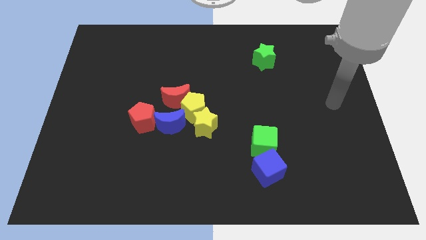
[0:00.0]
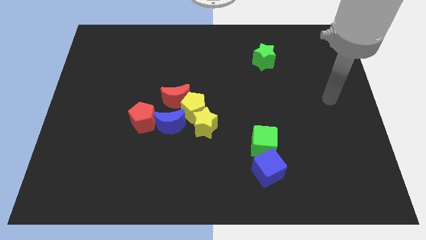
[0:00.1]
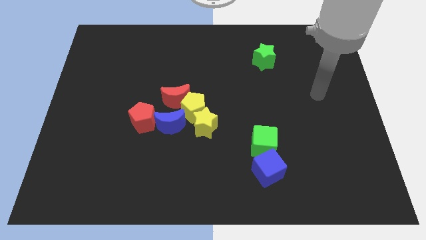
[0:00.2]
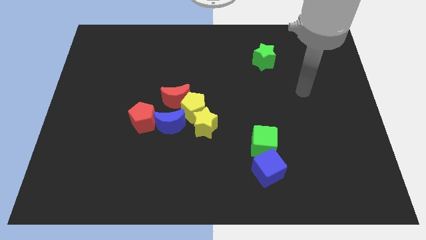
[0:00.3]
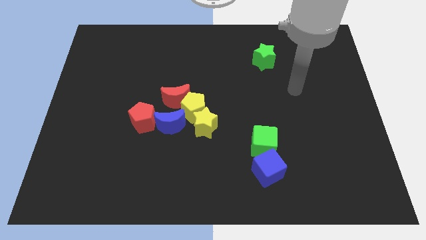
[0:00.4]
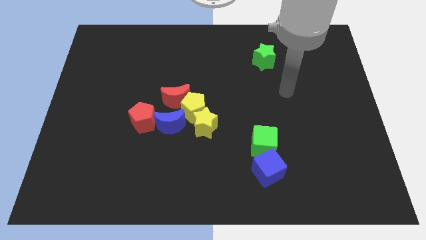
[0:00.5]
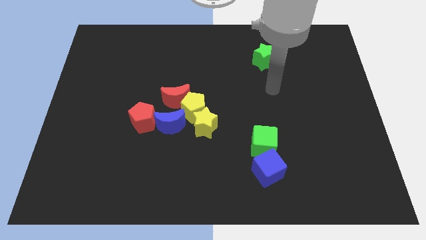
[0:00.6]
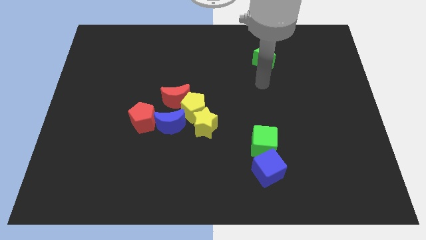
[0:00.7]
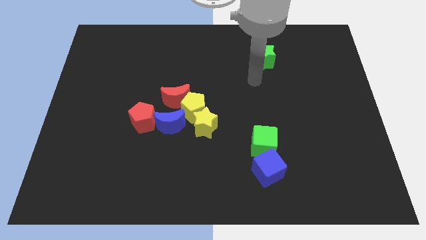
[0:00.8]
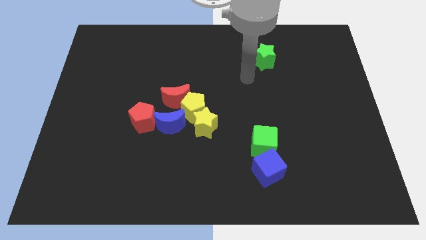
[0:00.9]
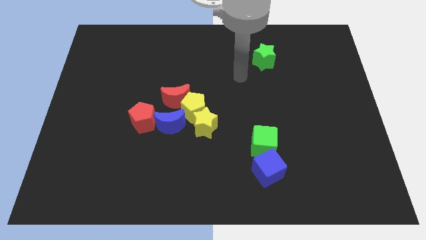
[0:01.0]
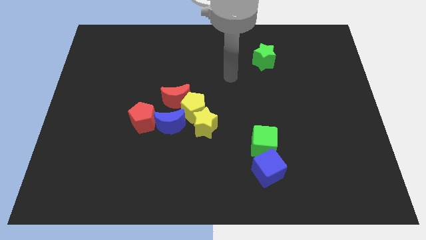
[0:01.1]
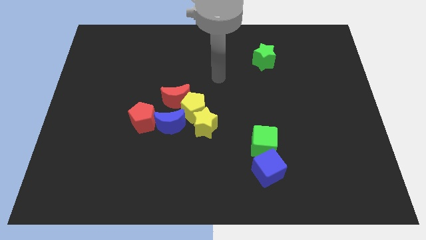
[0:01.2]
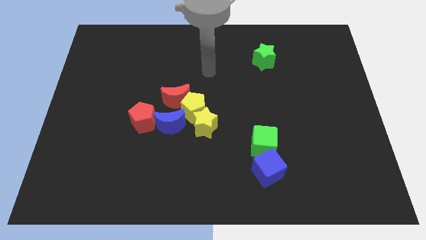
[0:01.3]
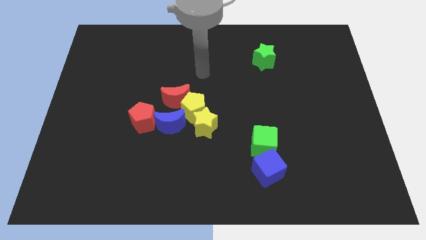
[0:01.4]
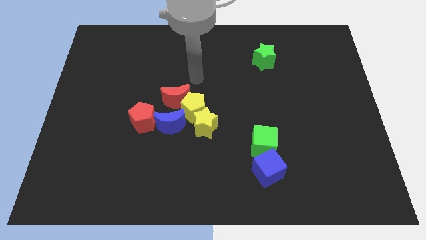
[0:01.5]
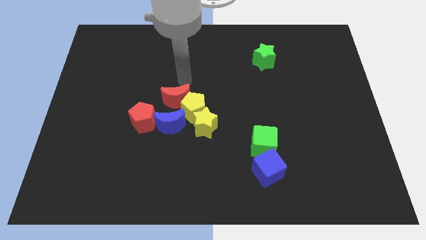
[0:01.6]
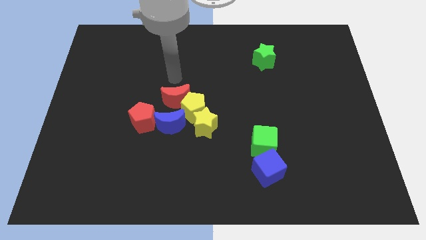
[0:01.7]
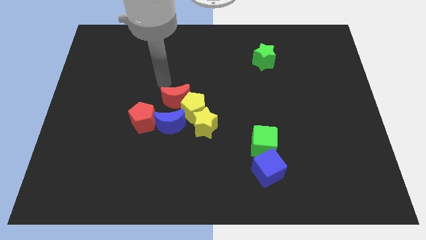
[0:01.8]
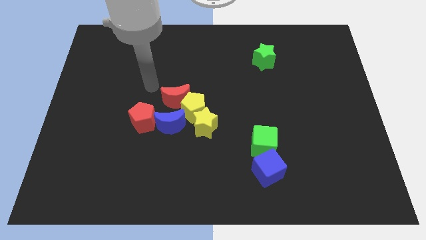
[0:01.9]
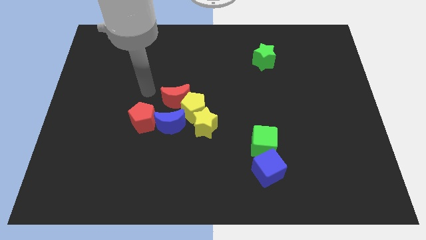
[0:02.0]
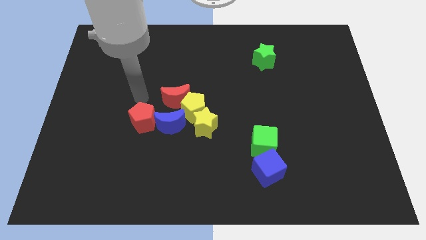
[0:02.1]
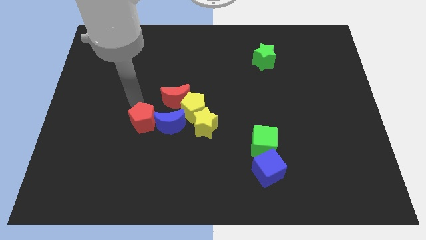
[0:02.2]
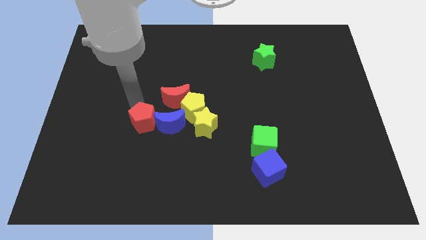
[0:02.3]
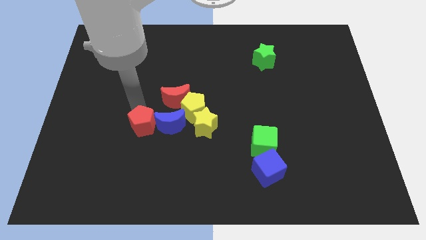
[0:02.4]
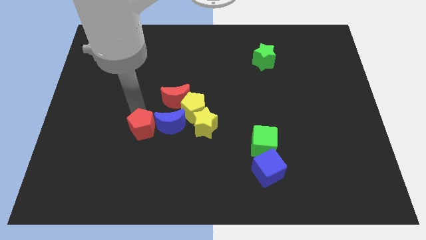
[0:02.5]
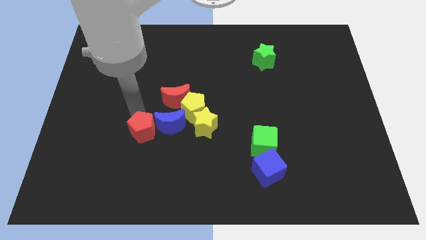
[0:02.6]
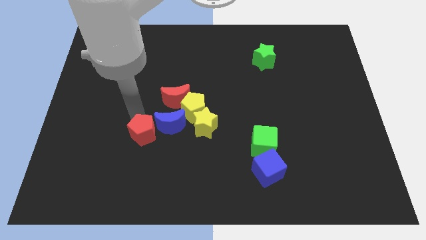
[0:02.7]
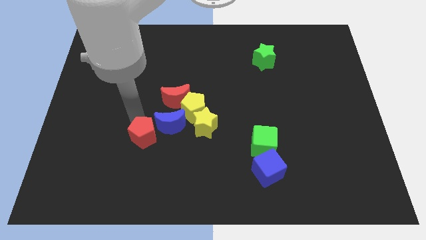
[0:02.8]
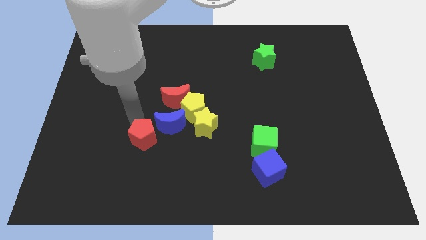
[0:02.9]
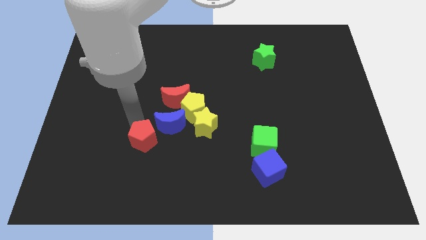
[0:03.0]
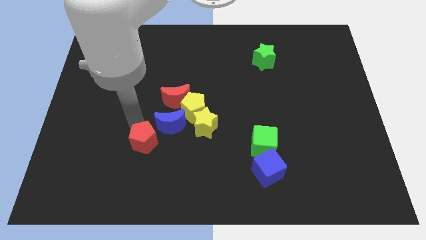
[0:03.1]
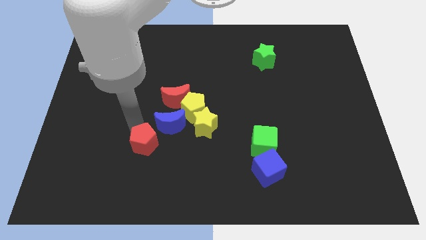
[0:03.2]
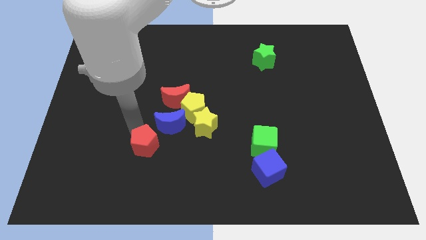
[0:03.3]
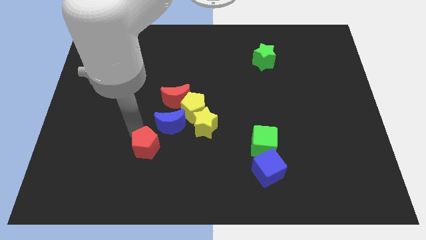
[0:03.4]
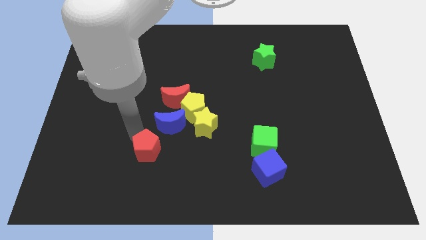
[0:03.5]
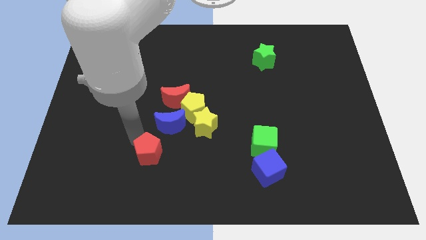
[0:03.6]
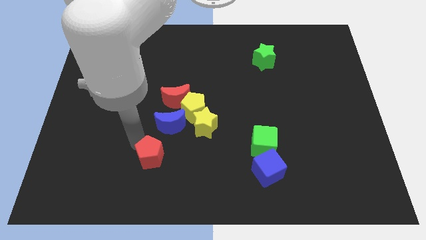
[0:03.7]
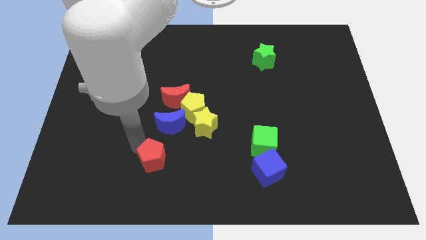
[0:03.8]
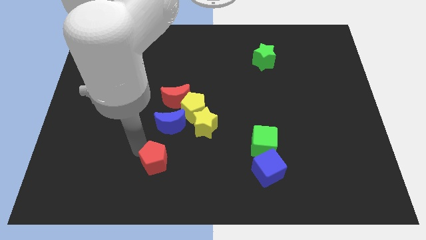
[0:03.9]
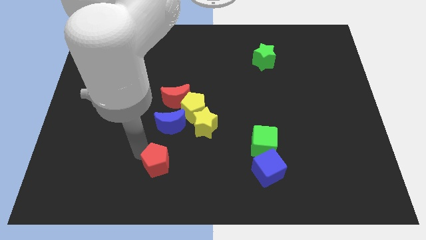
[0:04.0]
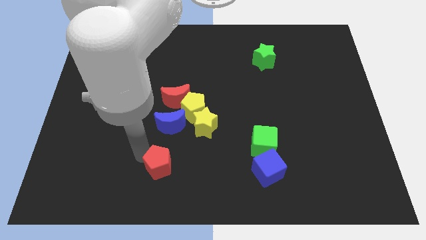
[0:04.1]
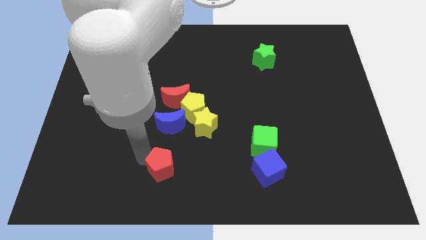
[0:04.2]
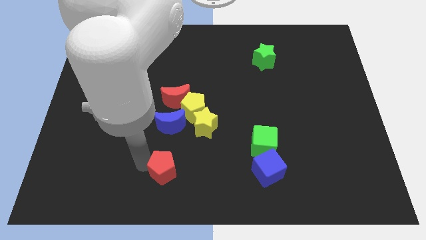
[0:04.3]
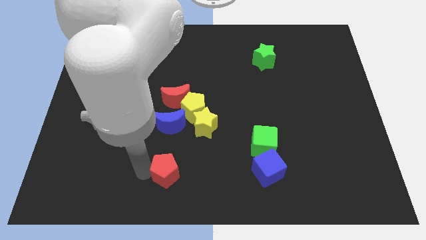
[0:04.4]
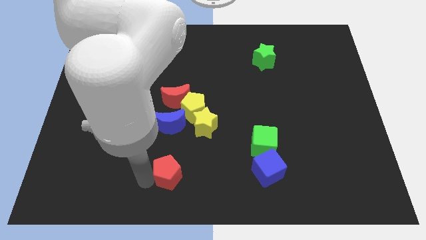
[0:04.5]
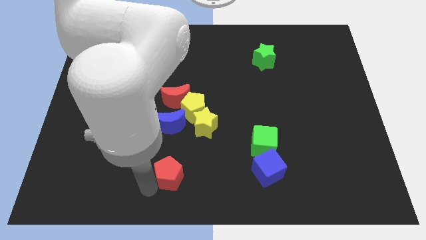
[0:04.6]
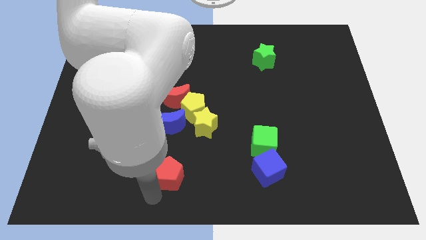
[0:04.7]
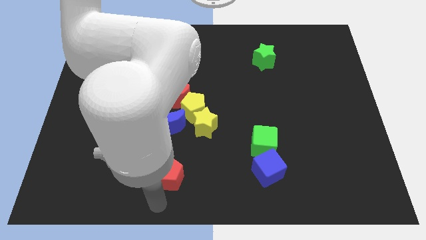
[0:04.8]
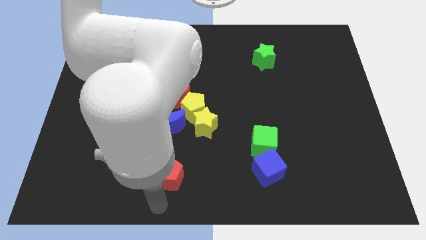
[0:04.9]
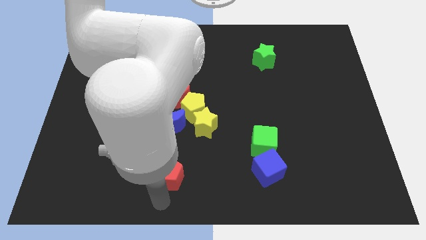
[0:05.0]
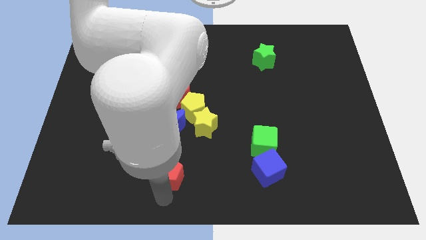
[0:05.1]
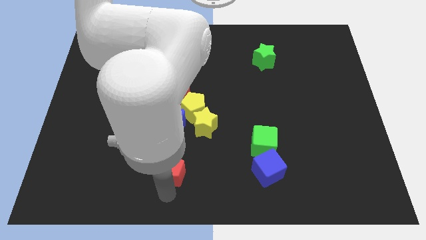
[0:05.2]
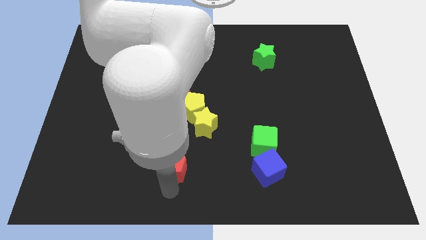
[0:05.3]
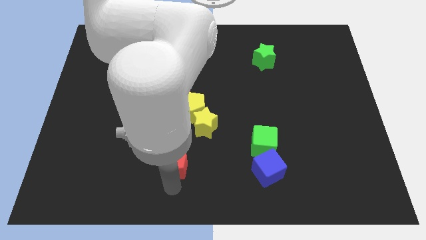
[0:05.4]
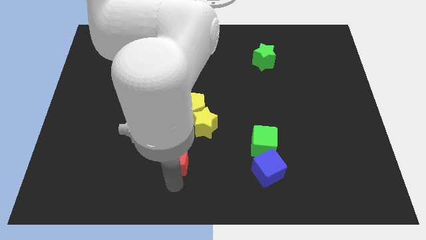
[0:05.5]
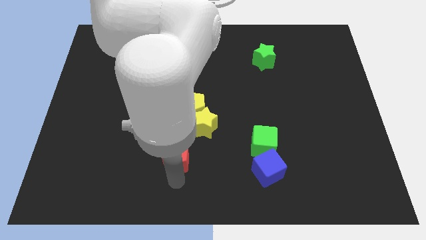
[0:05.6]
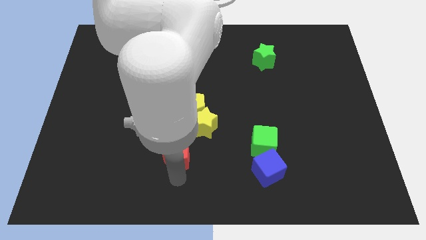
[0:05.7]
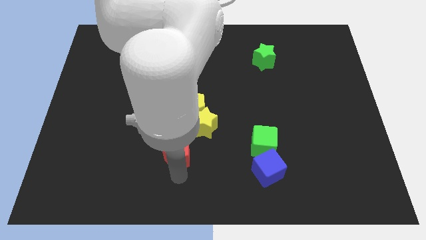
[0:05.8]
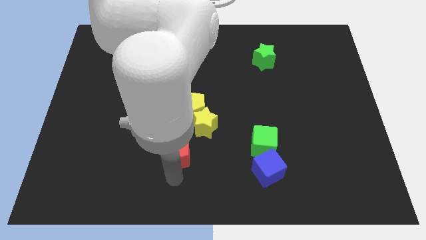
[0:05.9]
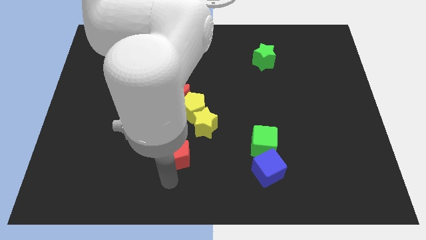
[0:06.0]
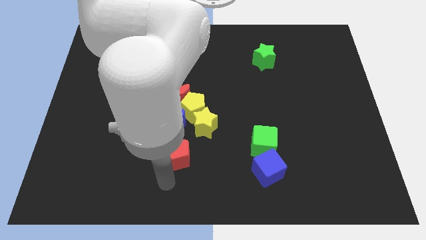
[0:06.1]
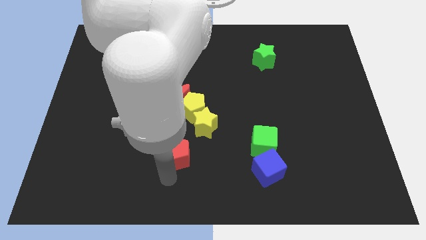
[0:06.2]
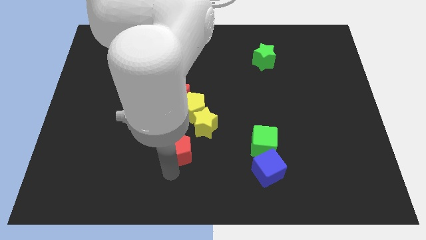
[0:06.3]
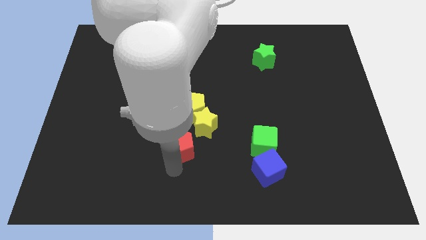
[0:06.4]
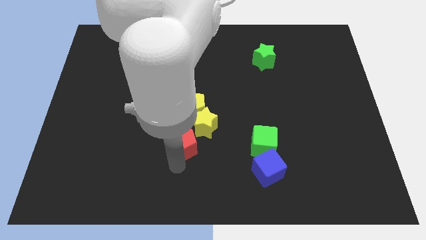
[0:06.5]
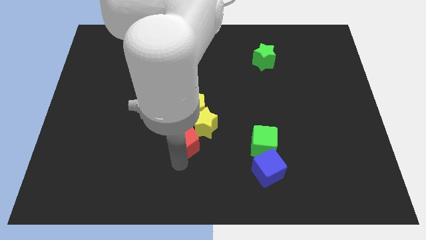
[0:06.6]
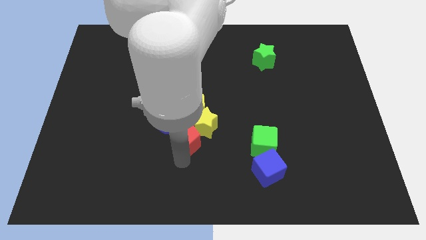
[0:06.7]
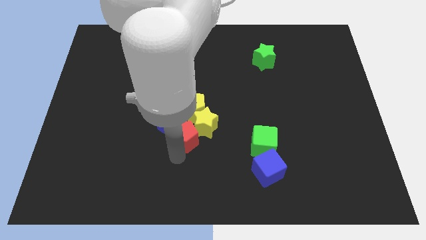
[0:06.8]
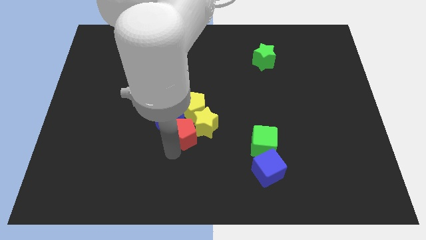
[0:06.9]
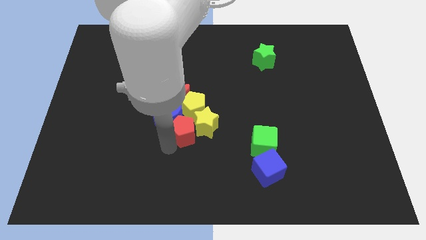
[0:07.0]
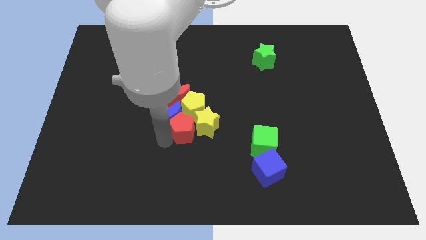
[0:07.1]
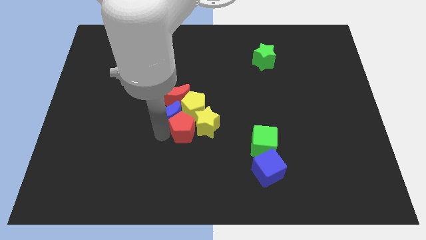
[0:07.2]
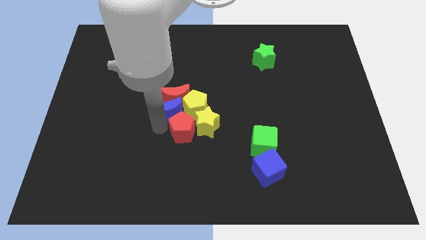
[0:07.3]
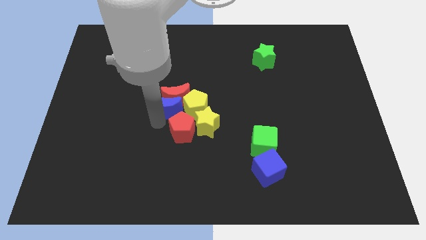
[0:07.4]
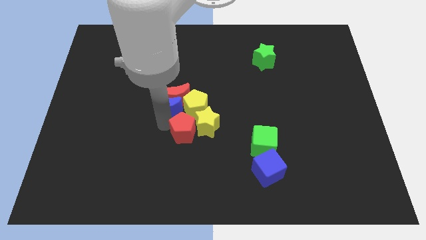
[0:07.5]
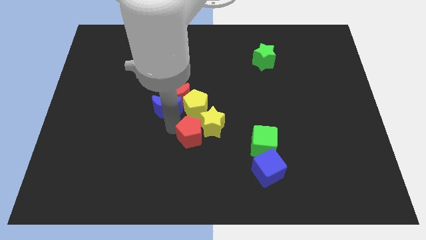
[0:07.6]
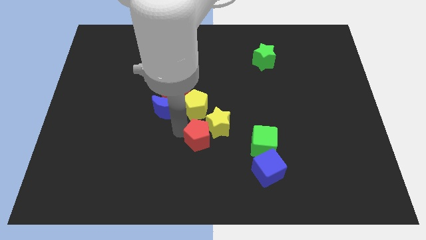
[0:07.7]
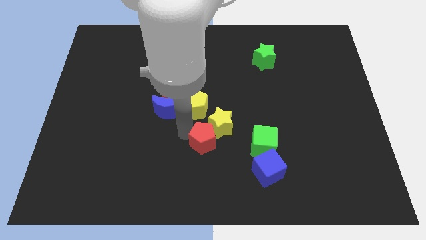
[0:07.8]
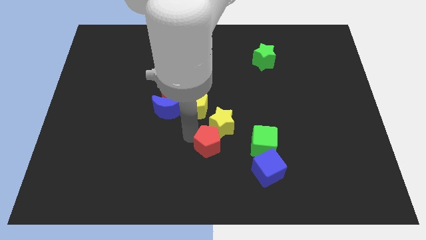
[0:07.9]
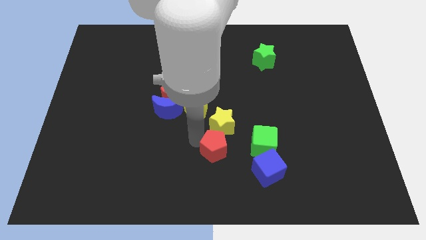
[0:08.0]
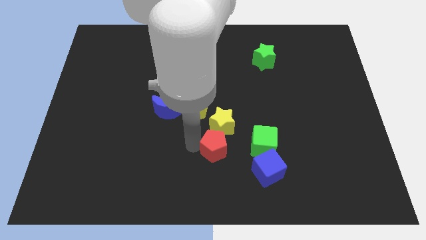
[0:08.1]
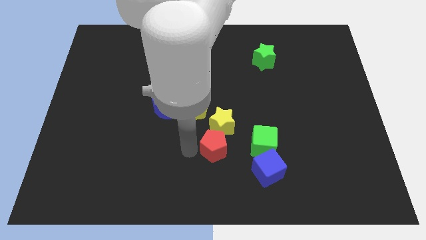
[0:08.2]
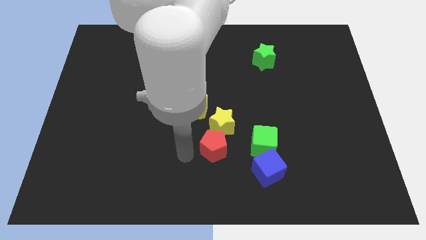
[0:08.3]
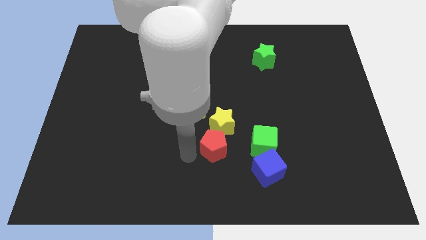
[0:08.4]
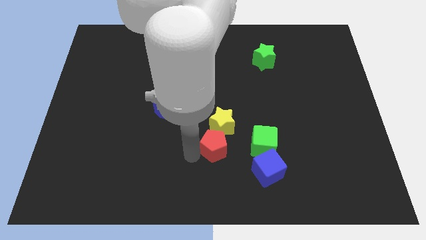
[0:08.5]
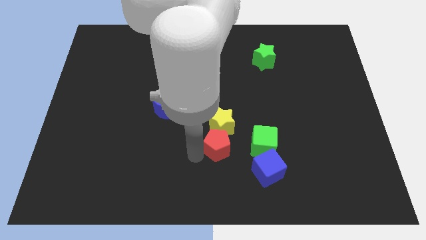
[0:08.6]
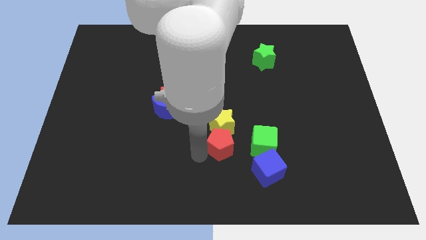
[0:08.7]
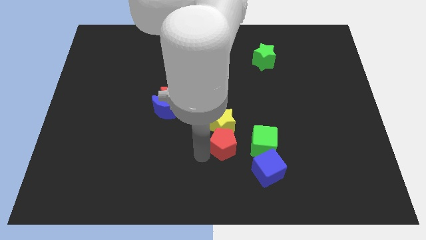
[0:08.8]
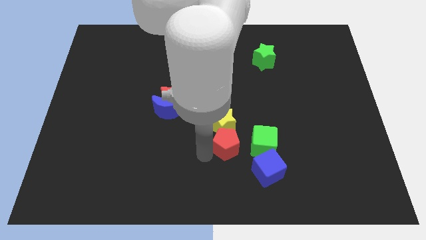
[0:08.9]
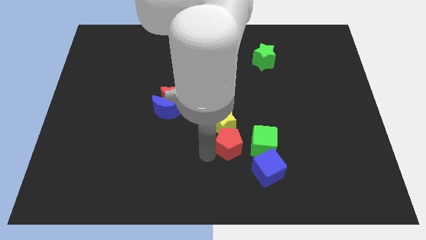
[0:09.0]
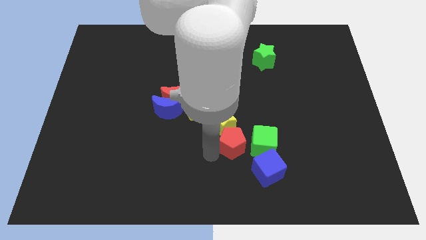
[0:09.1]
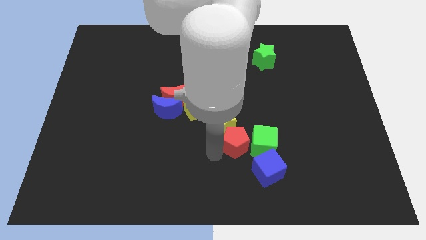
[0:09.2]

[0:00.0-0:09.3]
push the red pentagon close to the green cube
